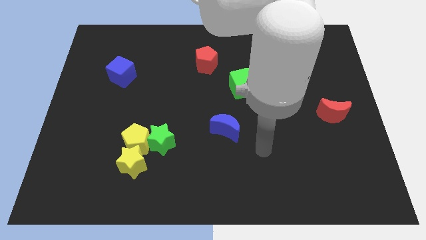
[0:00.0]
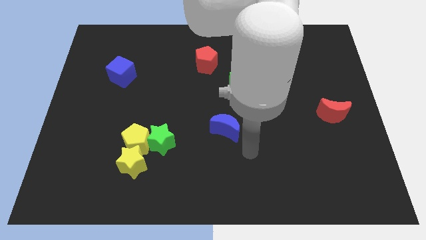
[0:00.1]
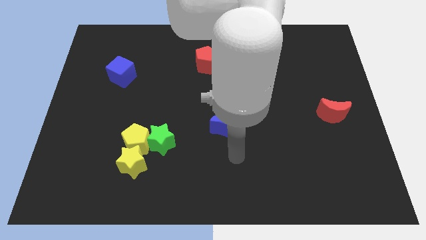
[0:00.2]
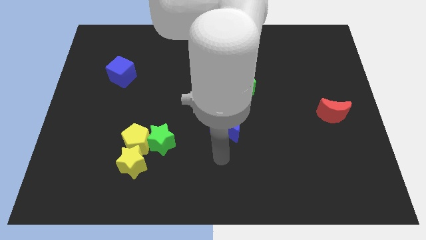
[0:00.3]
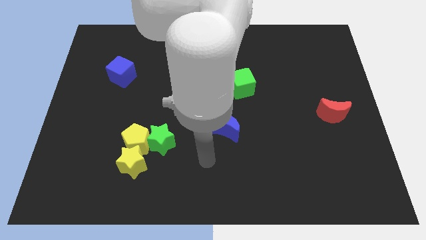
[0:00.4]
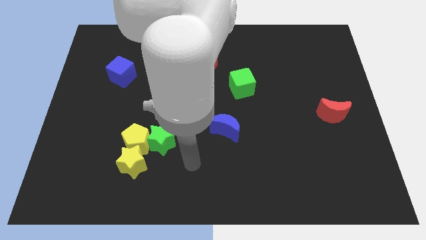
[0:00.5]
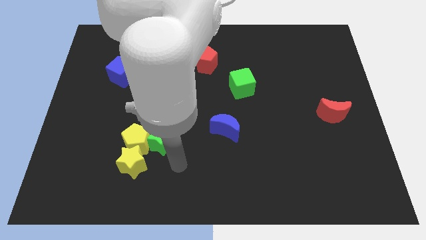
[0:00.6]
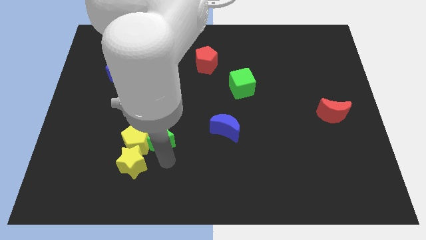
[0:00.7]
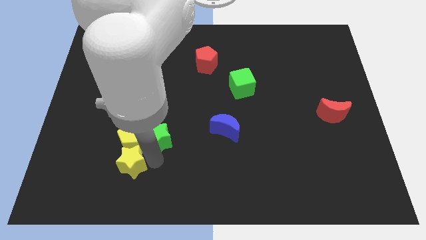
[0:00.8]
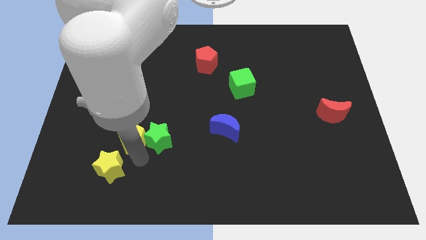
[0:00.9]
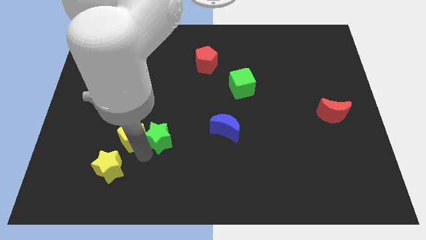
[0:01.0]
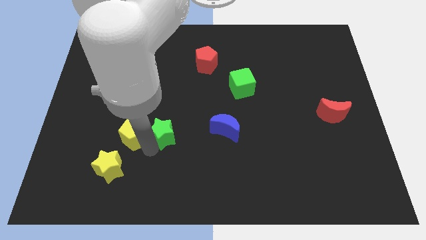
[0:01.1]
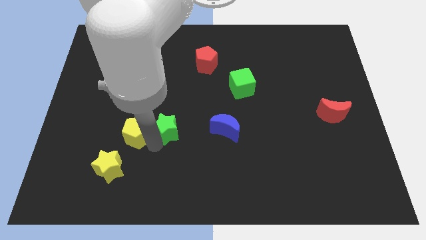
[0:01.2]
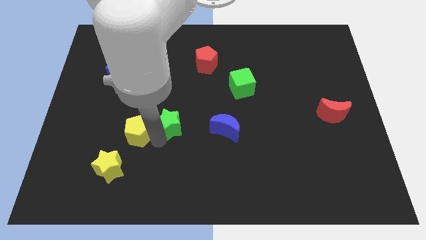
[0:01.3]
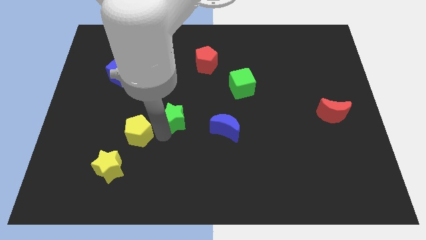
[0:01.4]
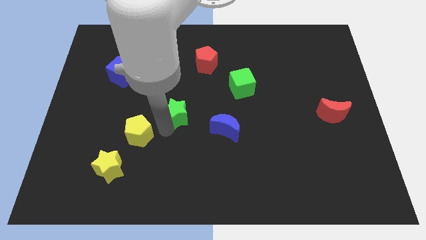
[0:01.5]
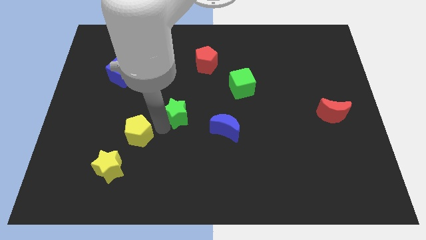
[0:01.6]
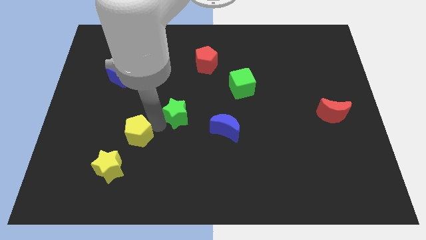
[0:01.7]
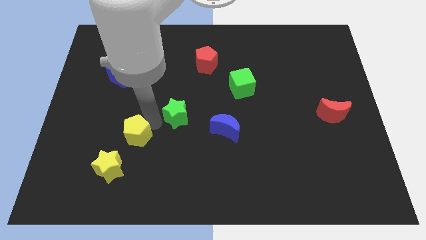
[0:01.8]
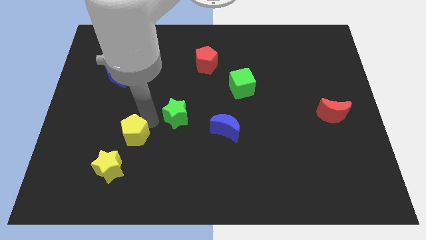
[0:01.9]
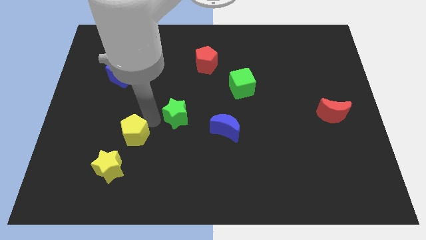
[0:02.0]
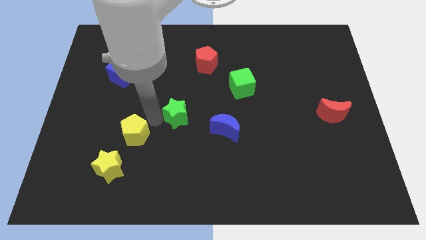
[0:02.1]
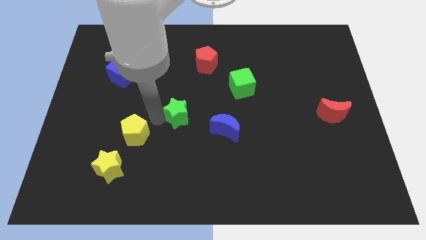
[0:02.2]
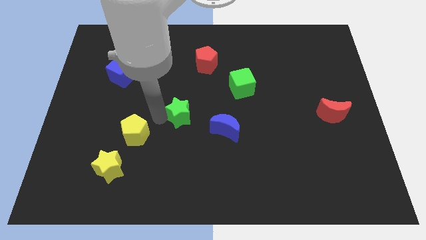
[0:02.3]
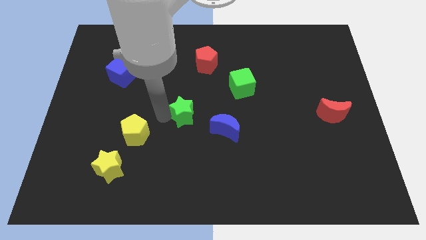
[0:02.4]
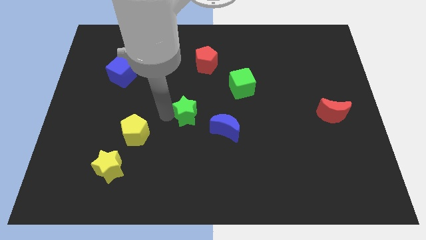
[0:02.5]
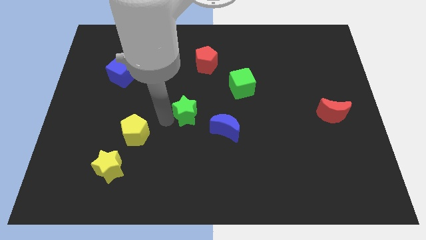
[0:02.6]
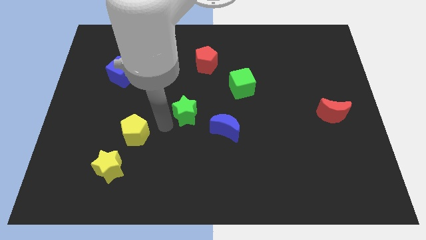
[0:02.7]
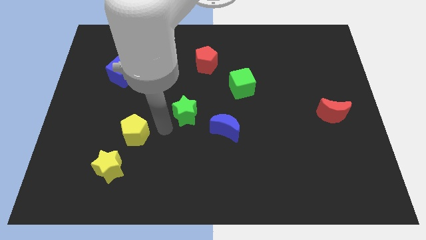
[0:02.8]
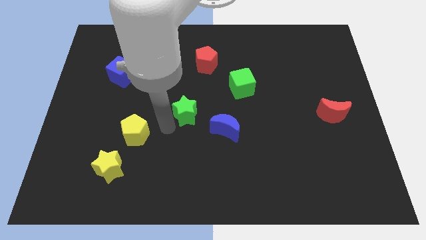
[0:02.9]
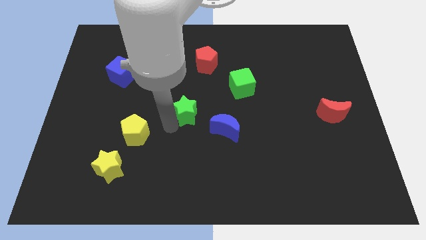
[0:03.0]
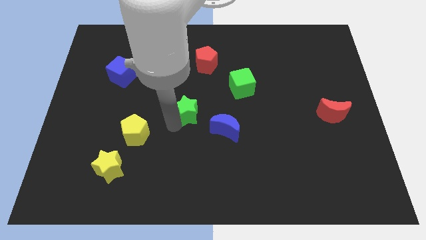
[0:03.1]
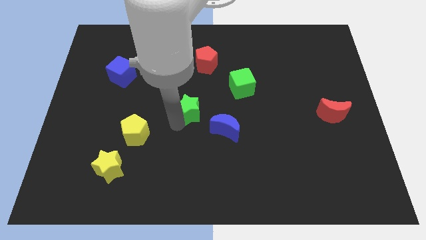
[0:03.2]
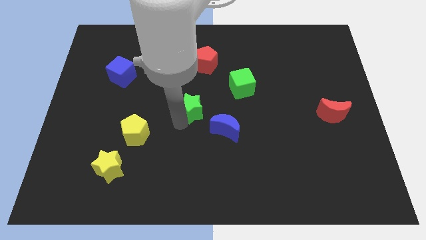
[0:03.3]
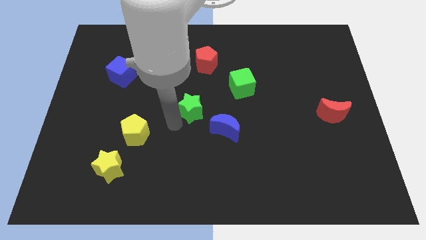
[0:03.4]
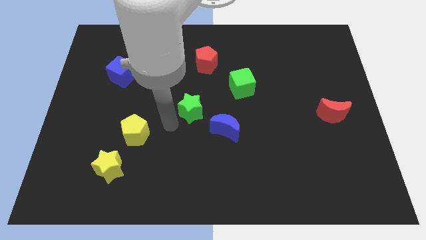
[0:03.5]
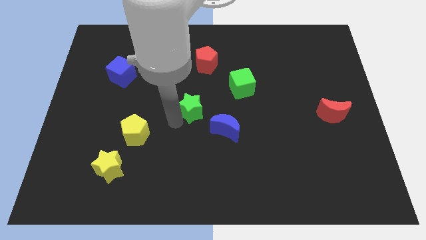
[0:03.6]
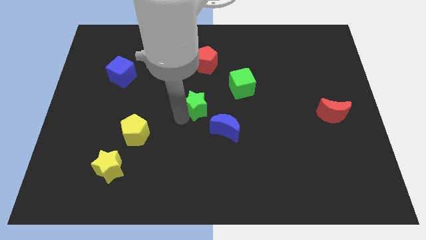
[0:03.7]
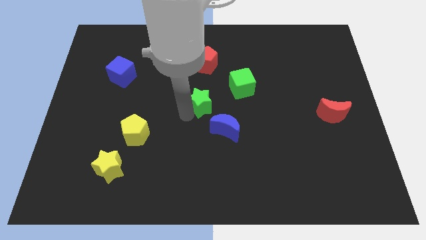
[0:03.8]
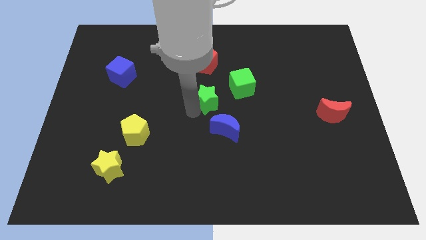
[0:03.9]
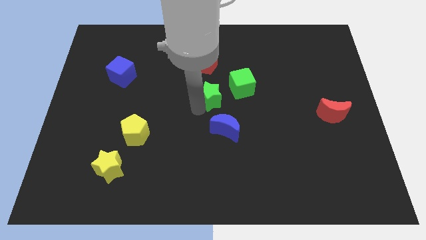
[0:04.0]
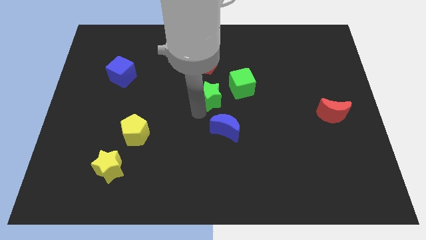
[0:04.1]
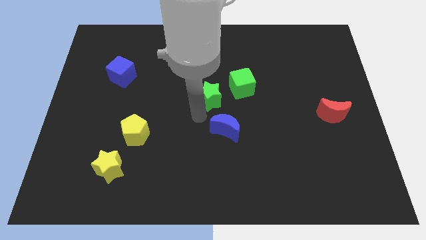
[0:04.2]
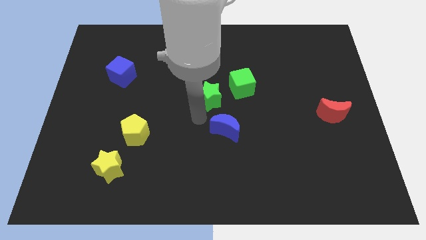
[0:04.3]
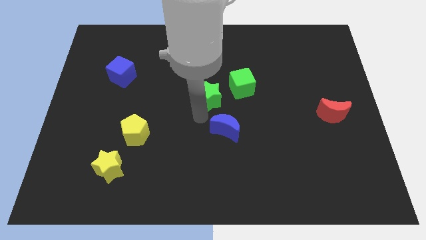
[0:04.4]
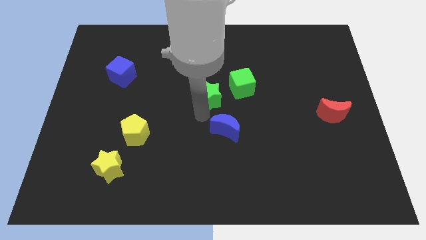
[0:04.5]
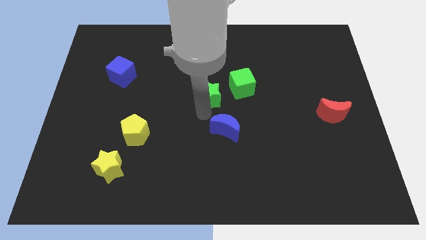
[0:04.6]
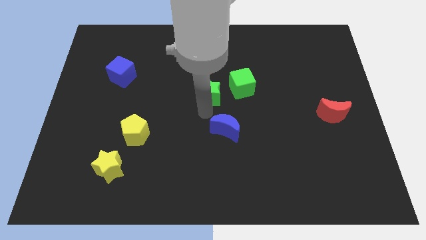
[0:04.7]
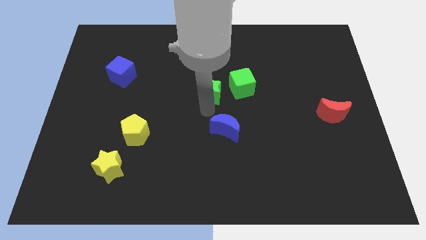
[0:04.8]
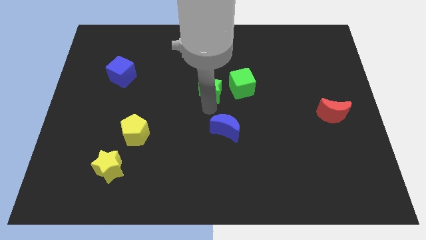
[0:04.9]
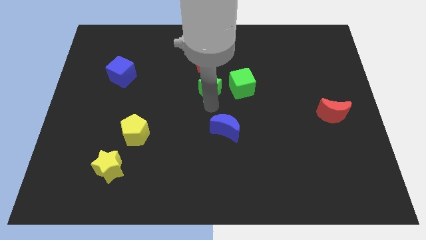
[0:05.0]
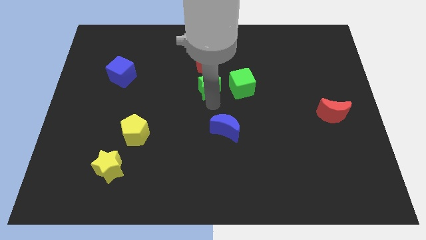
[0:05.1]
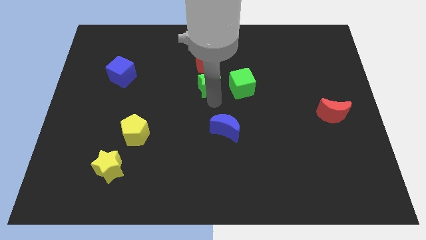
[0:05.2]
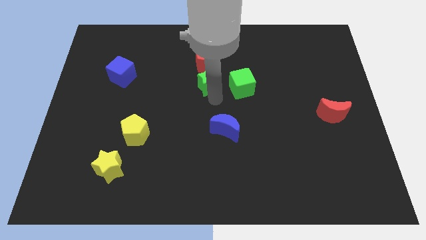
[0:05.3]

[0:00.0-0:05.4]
move the green star to the bottom right of the red pentagon
